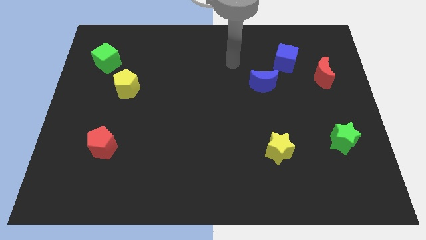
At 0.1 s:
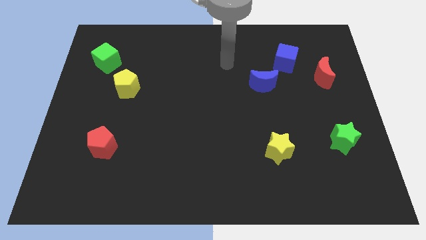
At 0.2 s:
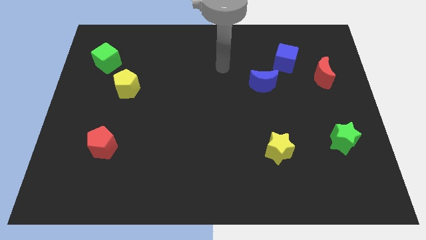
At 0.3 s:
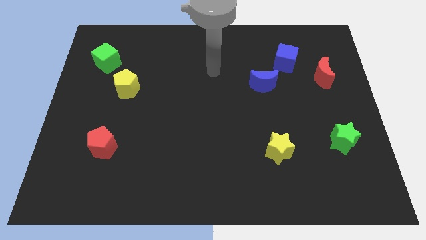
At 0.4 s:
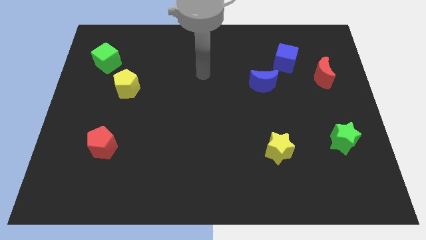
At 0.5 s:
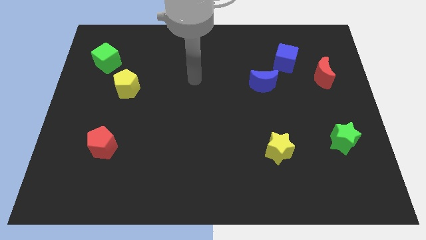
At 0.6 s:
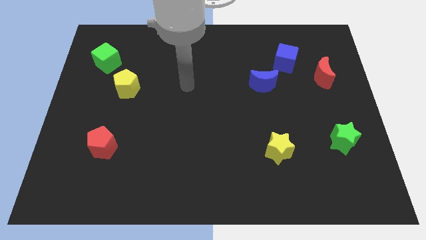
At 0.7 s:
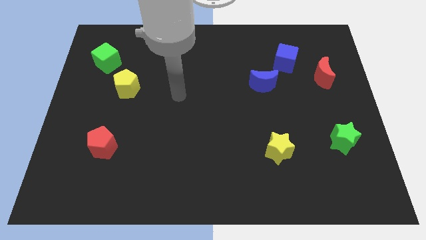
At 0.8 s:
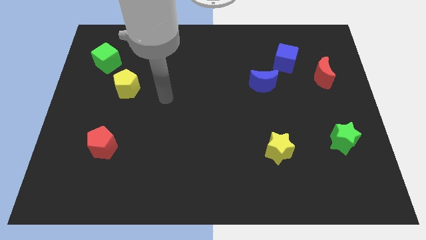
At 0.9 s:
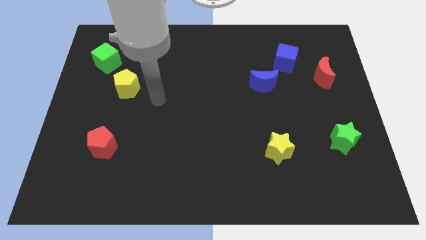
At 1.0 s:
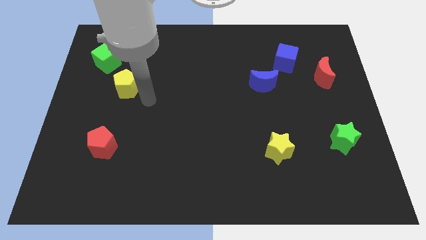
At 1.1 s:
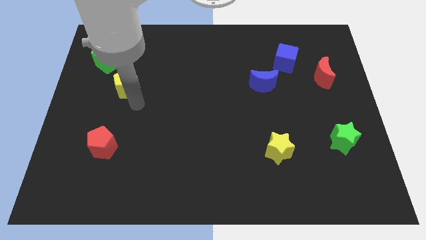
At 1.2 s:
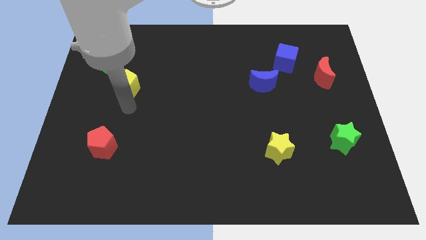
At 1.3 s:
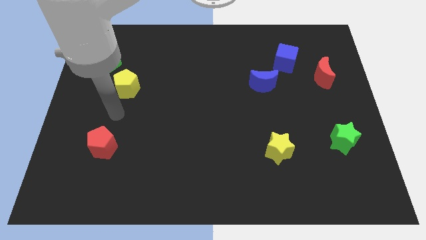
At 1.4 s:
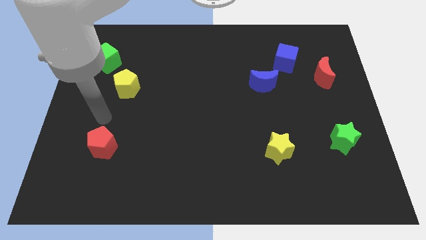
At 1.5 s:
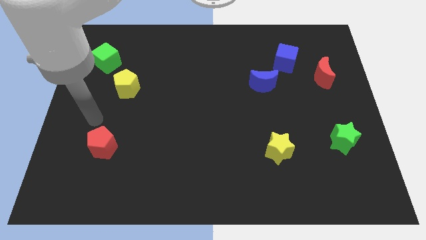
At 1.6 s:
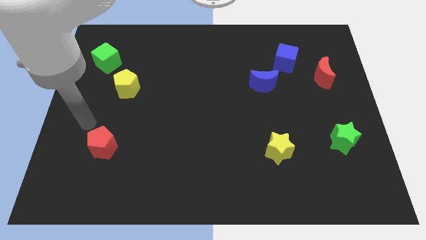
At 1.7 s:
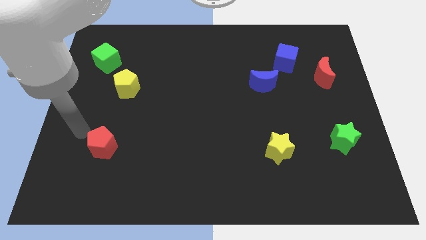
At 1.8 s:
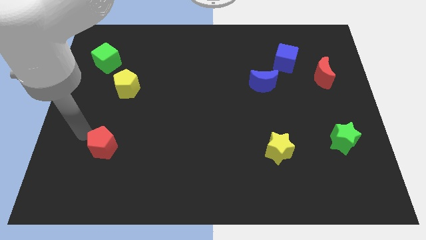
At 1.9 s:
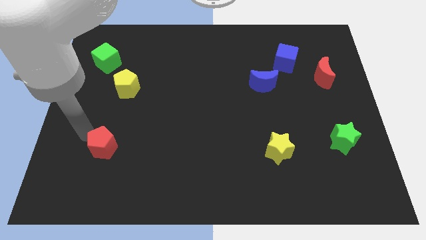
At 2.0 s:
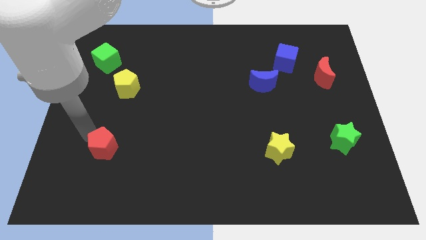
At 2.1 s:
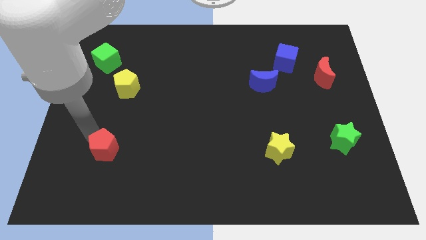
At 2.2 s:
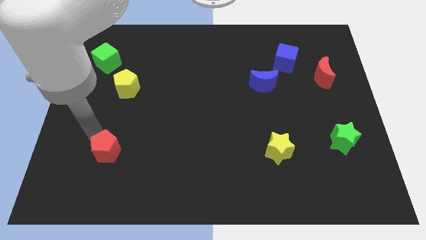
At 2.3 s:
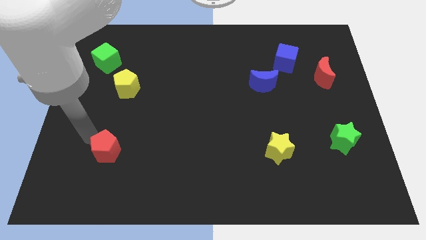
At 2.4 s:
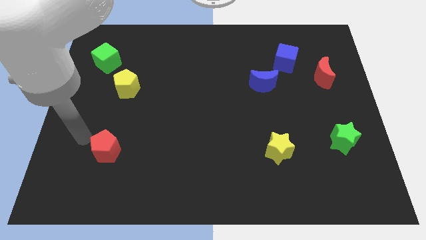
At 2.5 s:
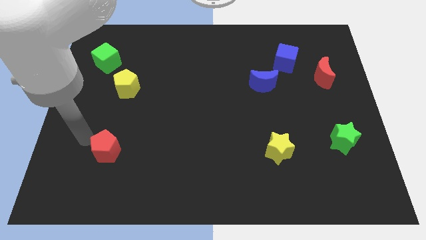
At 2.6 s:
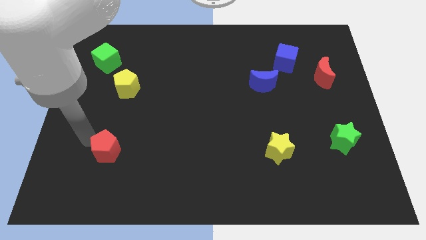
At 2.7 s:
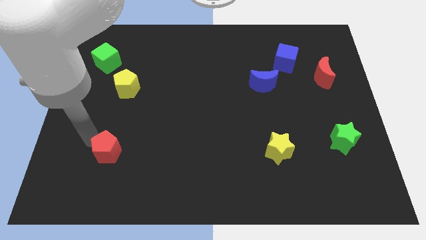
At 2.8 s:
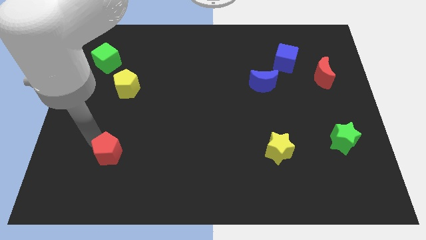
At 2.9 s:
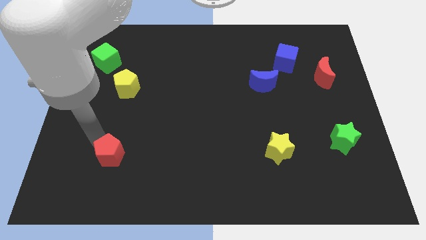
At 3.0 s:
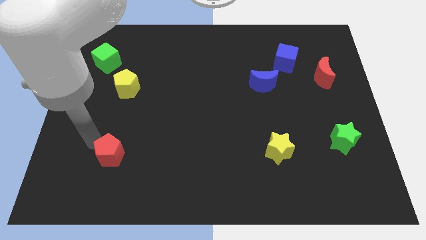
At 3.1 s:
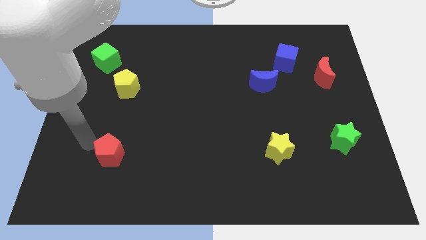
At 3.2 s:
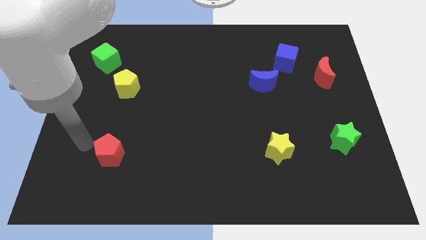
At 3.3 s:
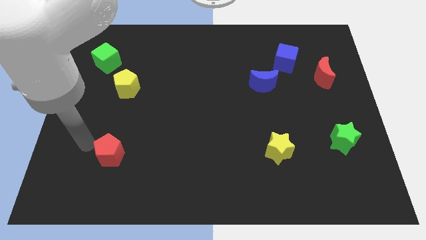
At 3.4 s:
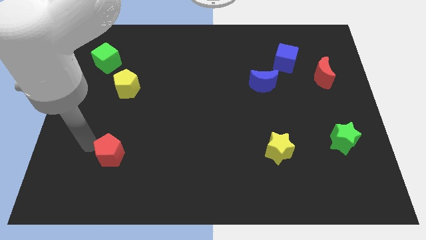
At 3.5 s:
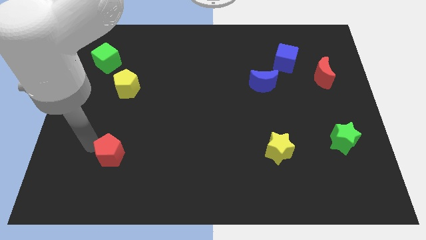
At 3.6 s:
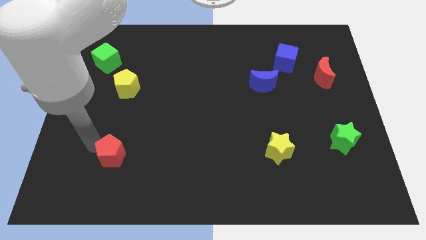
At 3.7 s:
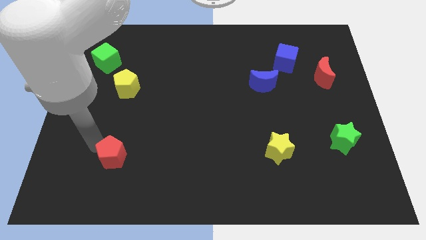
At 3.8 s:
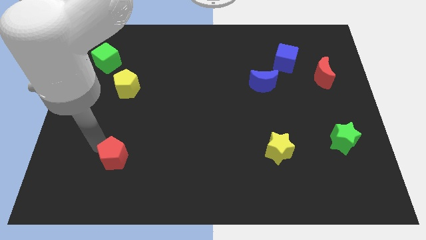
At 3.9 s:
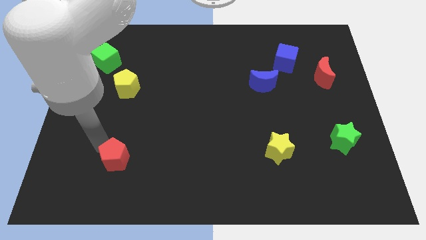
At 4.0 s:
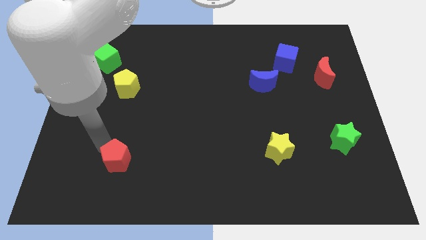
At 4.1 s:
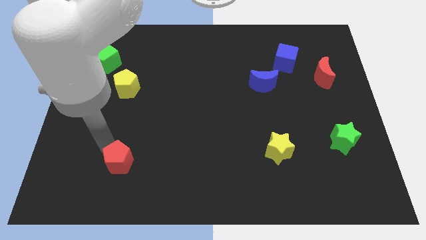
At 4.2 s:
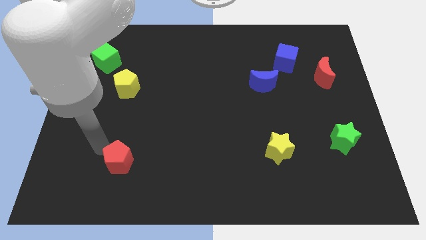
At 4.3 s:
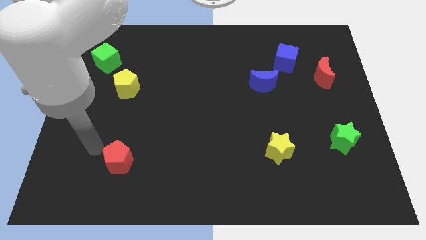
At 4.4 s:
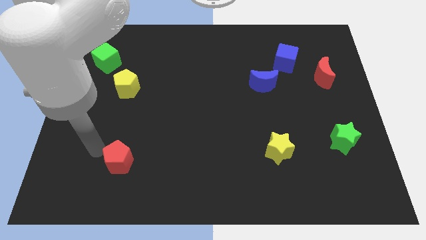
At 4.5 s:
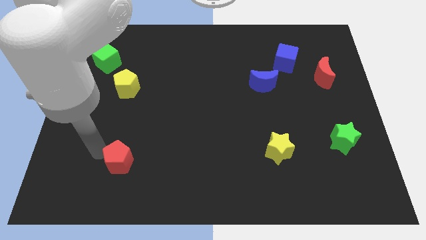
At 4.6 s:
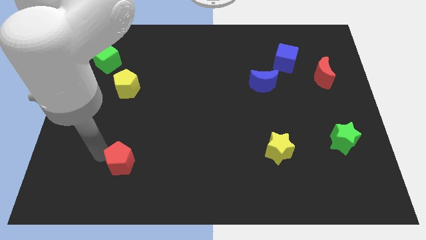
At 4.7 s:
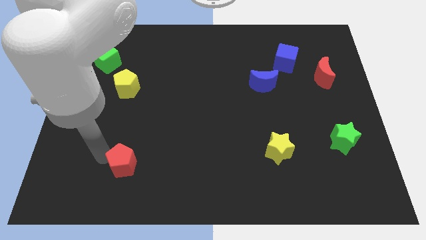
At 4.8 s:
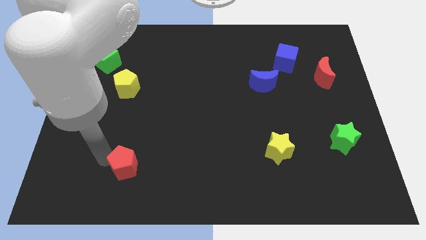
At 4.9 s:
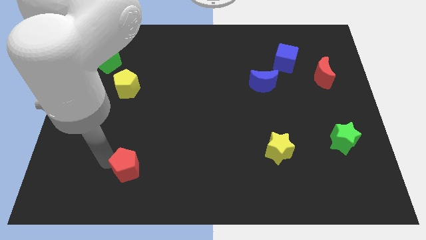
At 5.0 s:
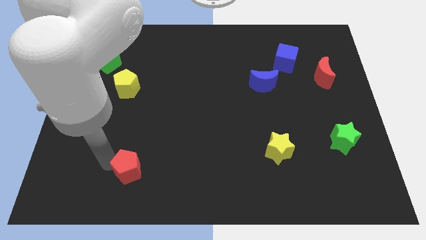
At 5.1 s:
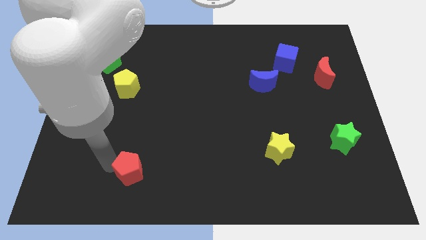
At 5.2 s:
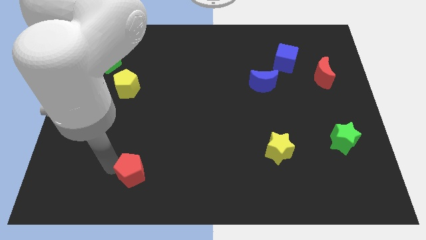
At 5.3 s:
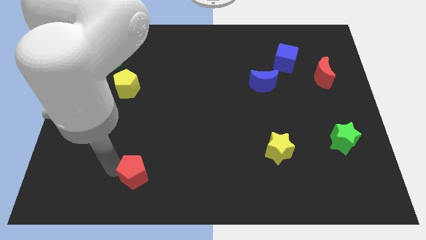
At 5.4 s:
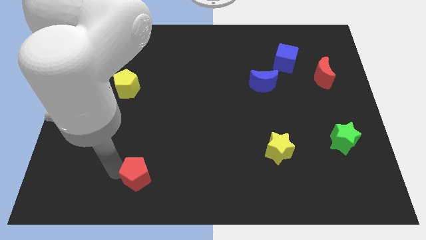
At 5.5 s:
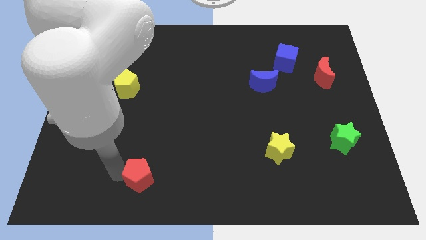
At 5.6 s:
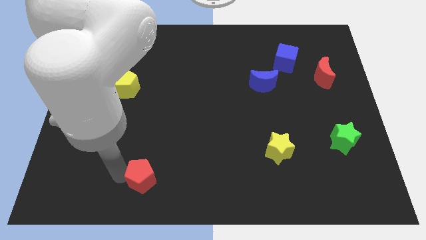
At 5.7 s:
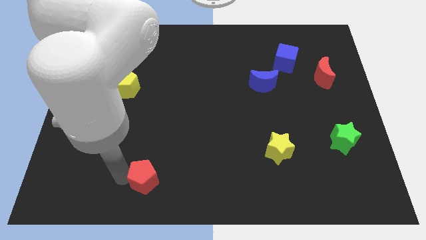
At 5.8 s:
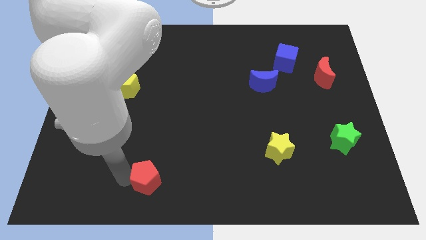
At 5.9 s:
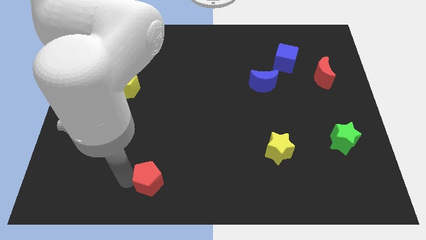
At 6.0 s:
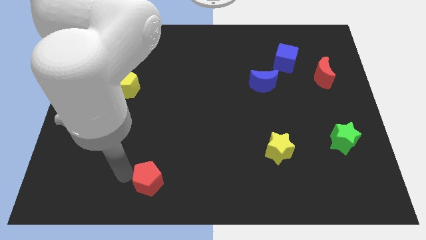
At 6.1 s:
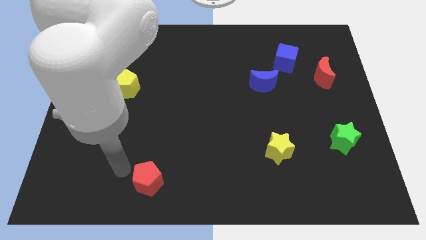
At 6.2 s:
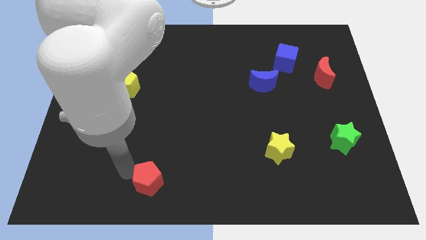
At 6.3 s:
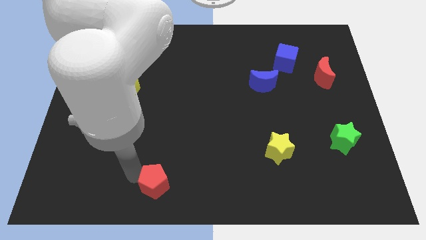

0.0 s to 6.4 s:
slide the red pentagon to the bottom

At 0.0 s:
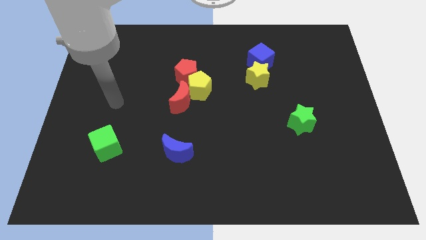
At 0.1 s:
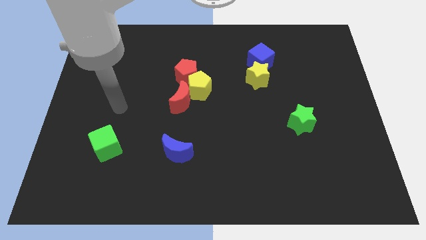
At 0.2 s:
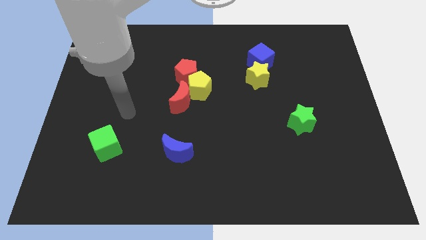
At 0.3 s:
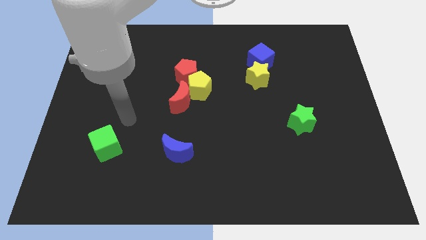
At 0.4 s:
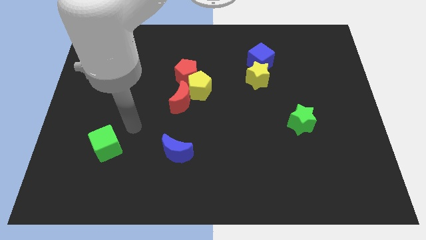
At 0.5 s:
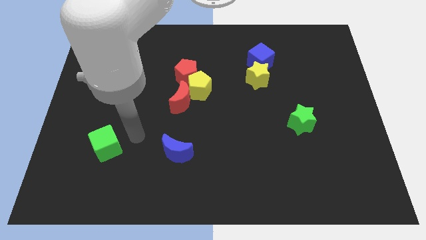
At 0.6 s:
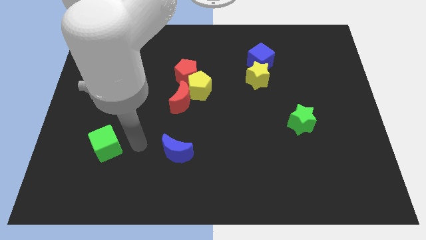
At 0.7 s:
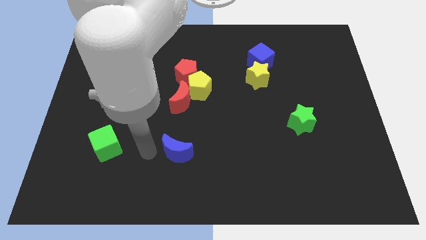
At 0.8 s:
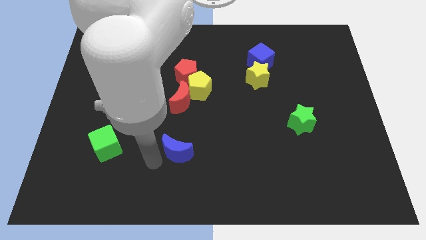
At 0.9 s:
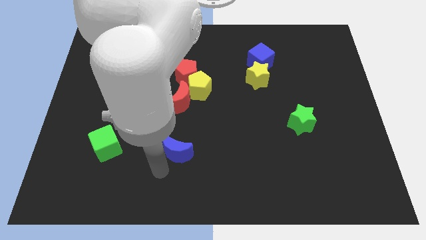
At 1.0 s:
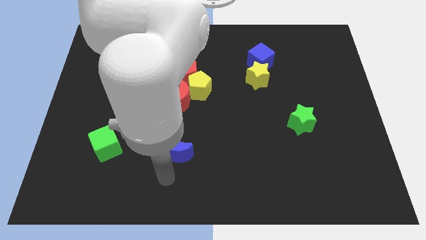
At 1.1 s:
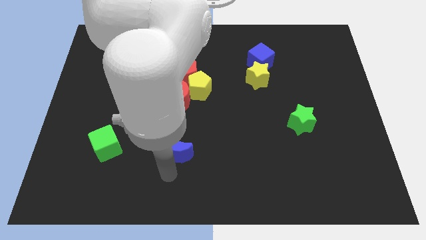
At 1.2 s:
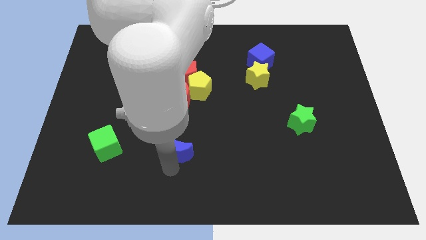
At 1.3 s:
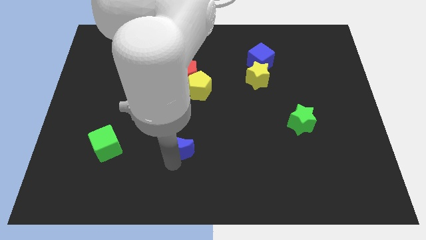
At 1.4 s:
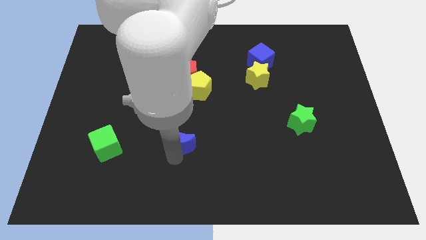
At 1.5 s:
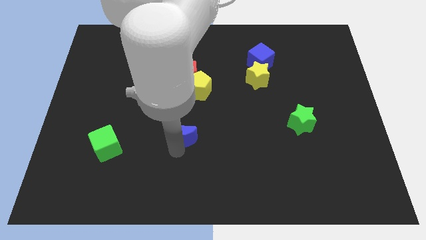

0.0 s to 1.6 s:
slide the blue moon to the center
